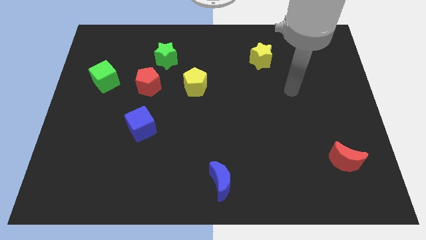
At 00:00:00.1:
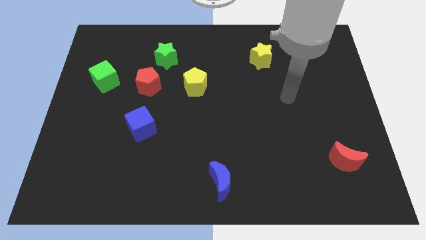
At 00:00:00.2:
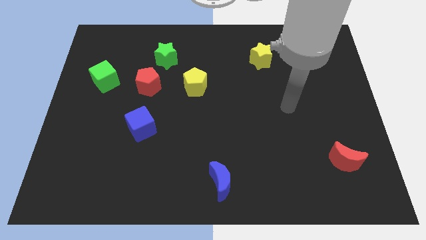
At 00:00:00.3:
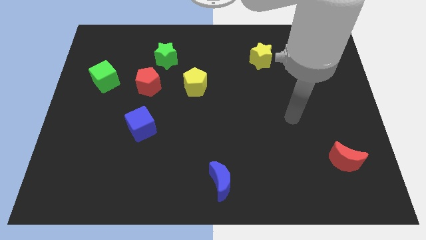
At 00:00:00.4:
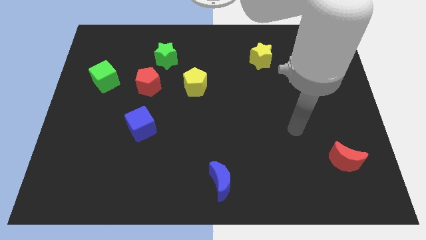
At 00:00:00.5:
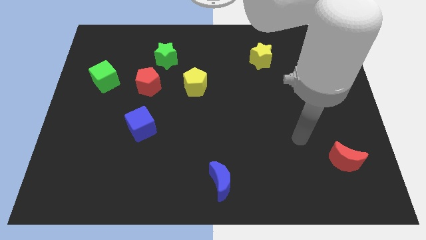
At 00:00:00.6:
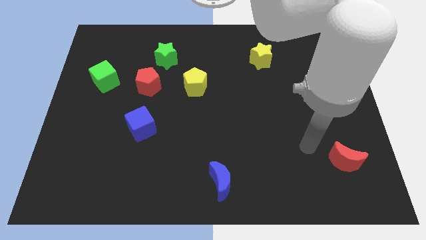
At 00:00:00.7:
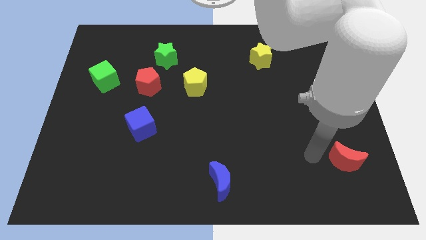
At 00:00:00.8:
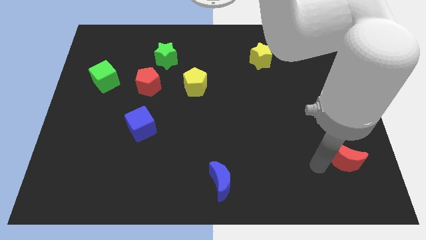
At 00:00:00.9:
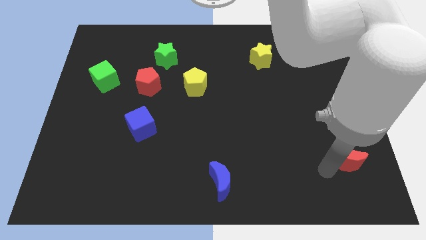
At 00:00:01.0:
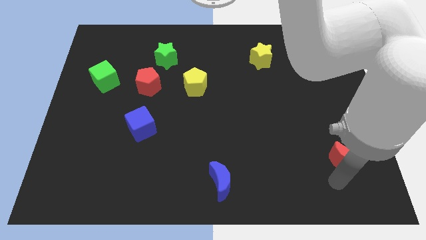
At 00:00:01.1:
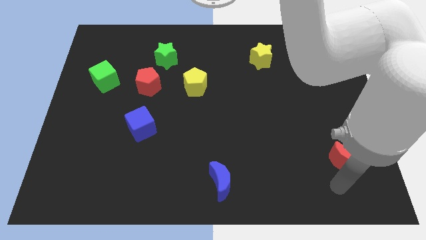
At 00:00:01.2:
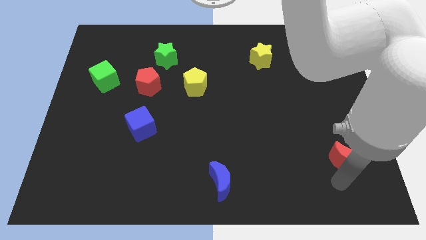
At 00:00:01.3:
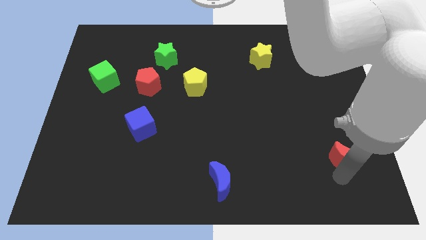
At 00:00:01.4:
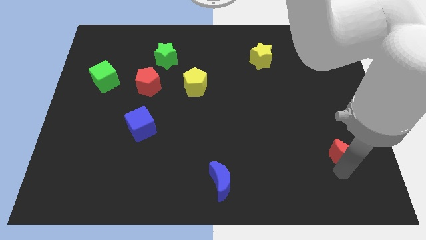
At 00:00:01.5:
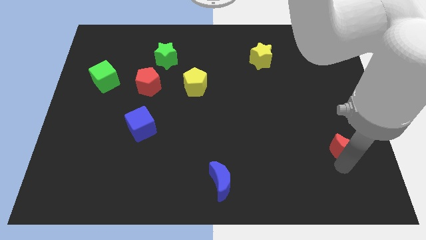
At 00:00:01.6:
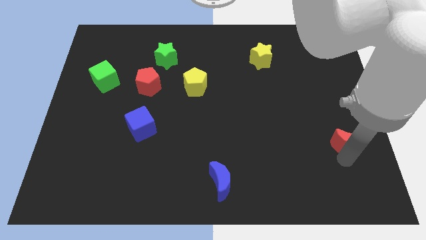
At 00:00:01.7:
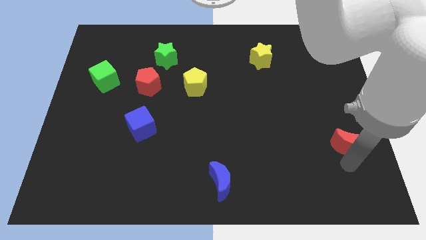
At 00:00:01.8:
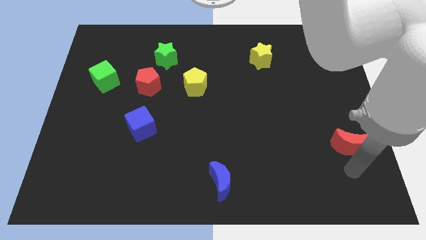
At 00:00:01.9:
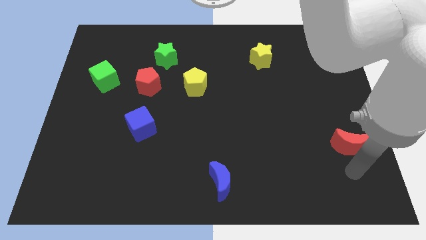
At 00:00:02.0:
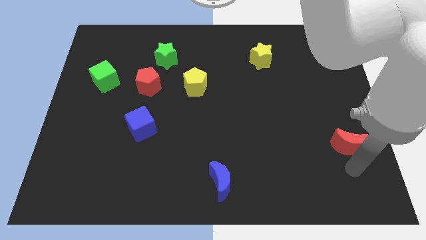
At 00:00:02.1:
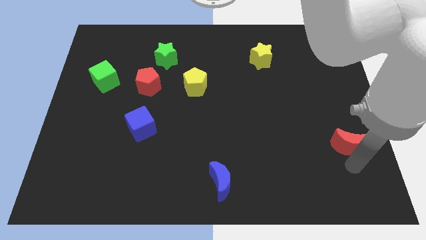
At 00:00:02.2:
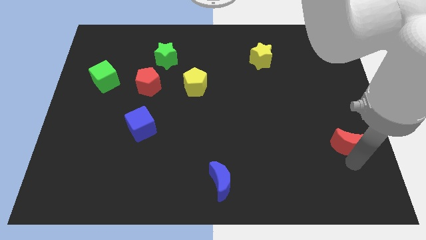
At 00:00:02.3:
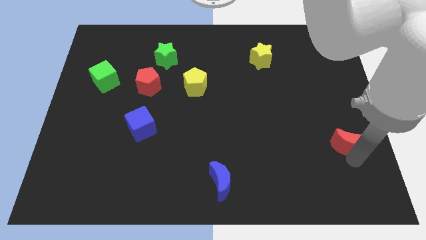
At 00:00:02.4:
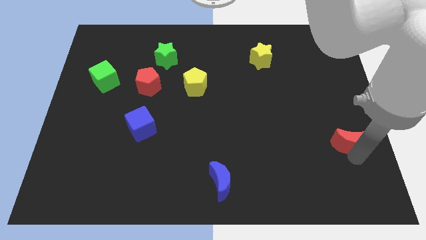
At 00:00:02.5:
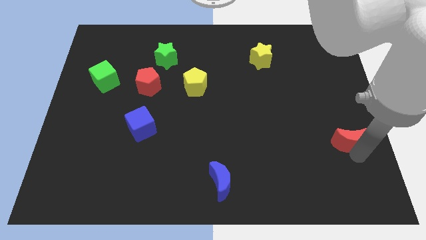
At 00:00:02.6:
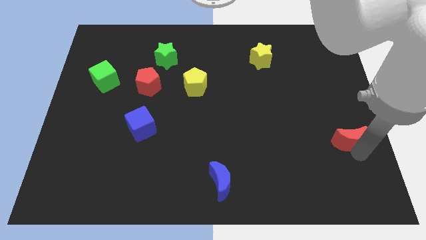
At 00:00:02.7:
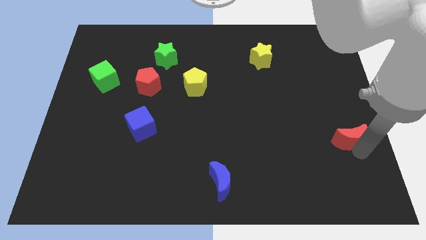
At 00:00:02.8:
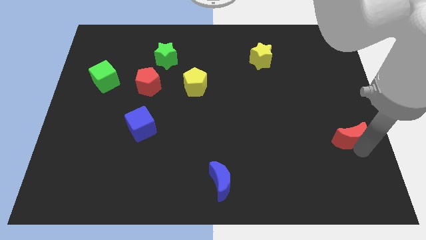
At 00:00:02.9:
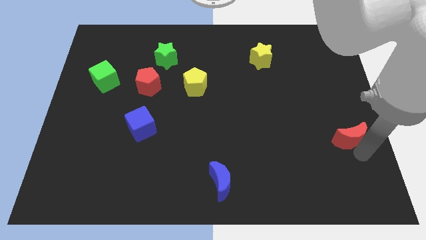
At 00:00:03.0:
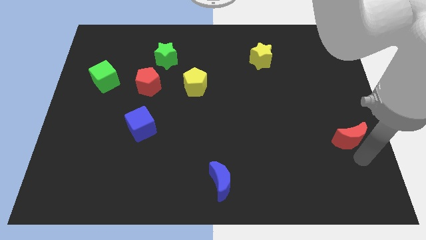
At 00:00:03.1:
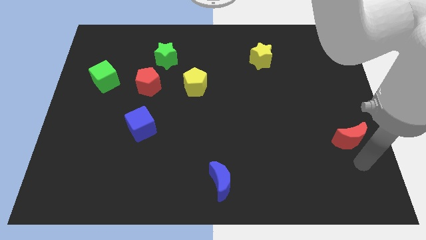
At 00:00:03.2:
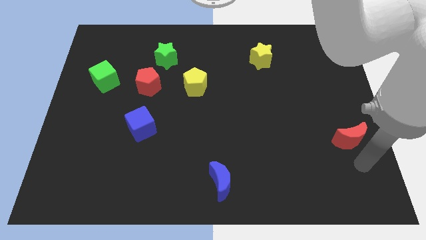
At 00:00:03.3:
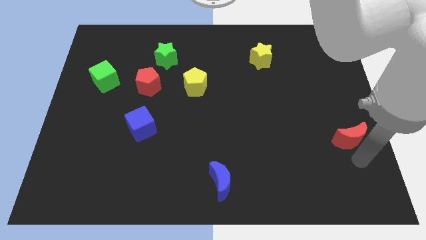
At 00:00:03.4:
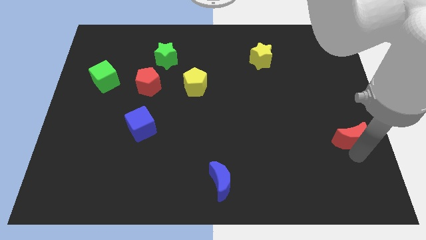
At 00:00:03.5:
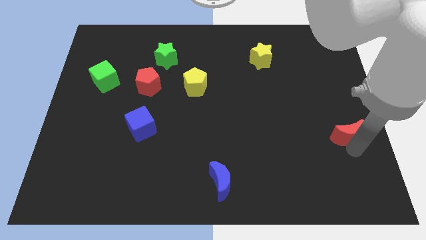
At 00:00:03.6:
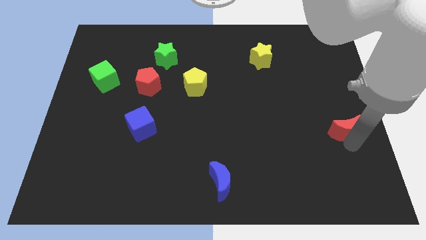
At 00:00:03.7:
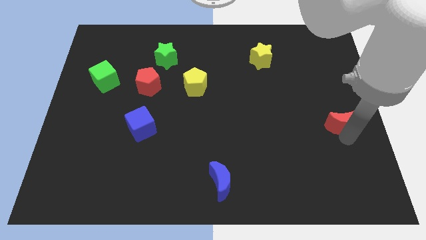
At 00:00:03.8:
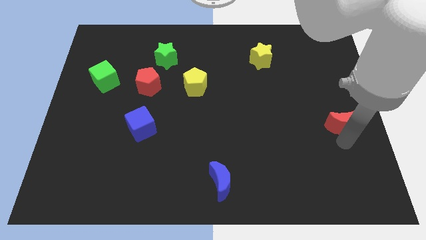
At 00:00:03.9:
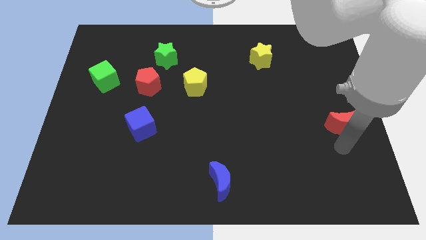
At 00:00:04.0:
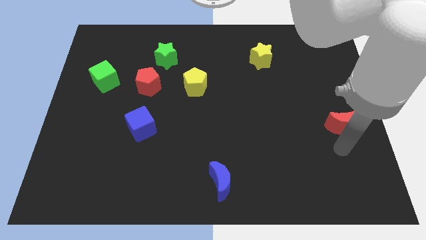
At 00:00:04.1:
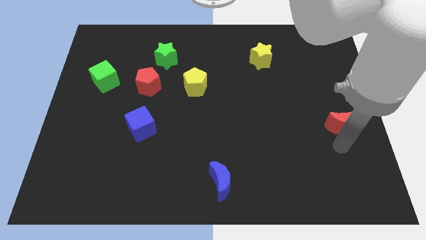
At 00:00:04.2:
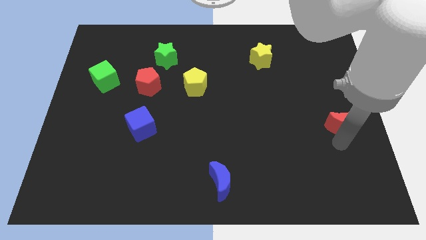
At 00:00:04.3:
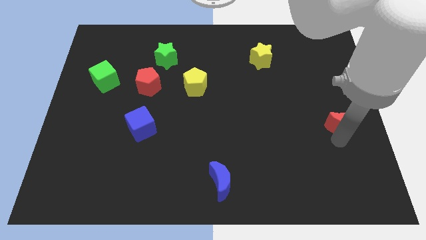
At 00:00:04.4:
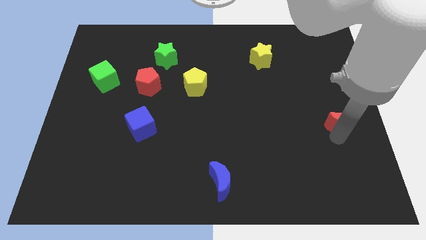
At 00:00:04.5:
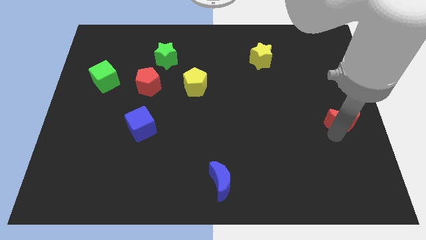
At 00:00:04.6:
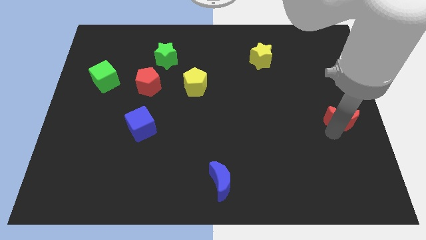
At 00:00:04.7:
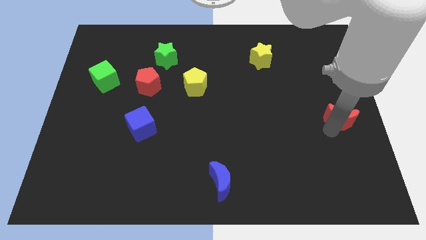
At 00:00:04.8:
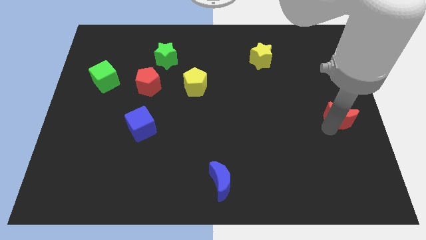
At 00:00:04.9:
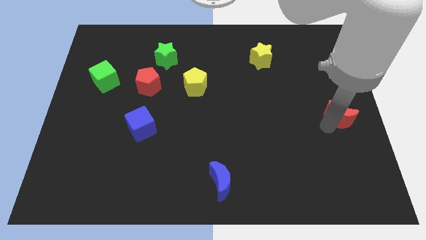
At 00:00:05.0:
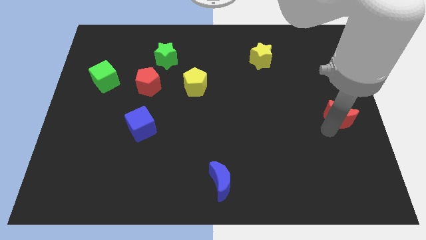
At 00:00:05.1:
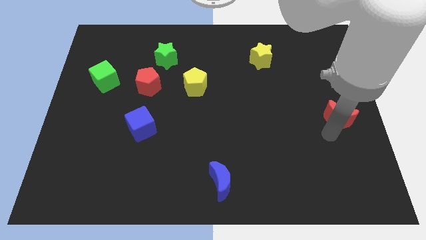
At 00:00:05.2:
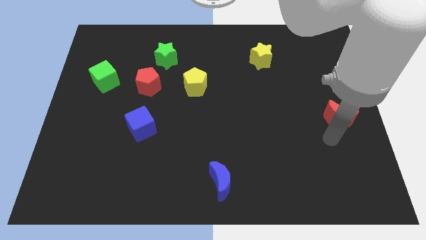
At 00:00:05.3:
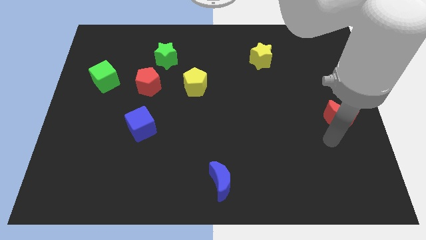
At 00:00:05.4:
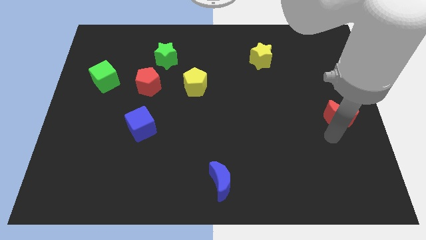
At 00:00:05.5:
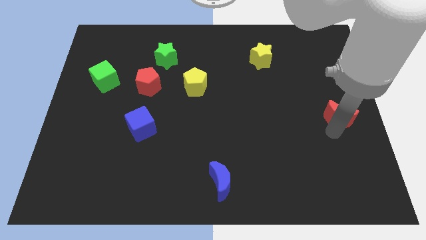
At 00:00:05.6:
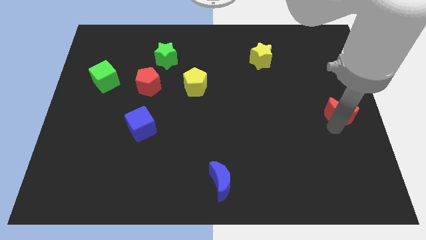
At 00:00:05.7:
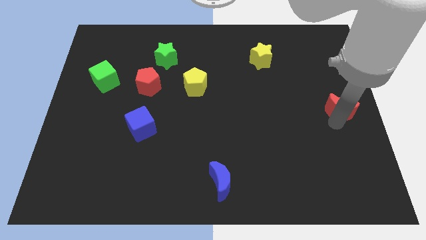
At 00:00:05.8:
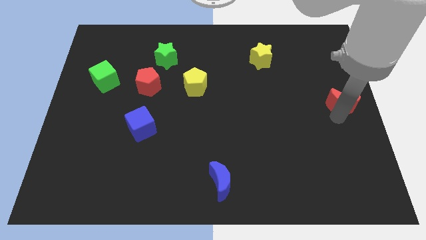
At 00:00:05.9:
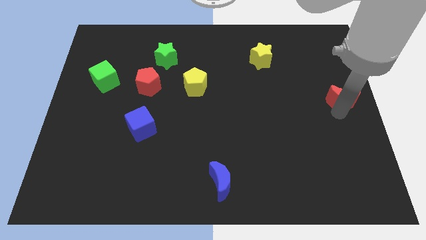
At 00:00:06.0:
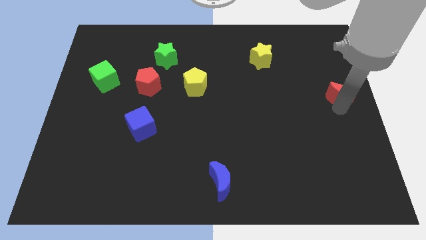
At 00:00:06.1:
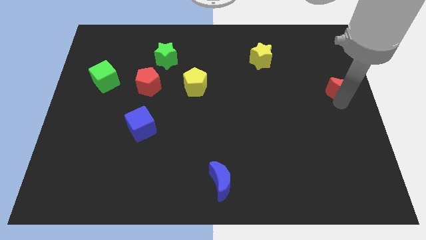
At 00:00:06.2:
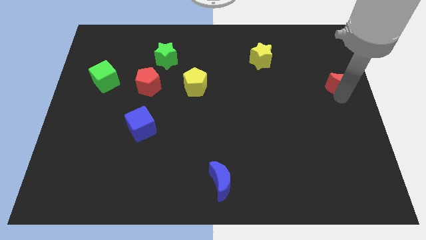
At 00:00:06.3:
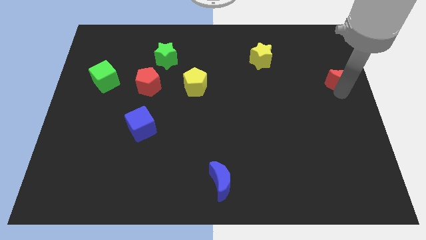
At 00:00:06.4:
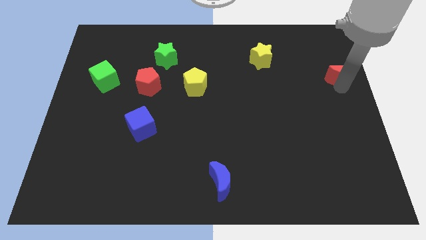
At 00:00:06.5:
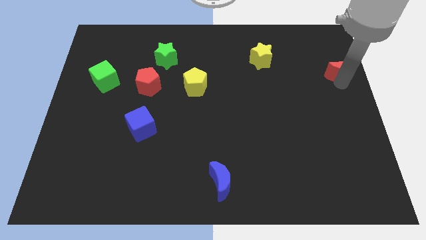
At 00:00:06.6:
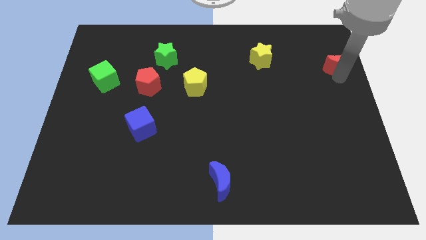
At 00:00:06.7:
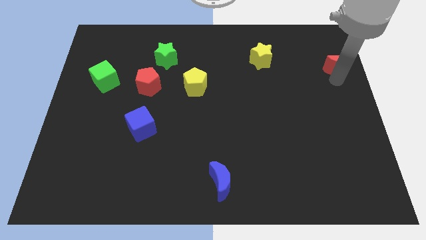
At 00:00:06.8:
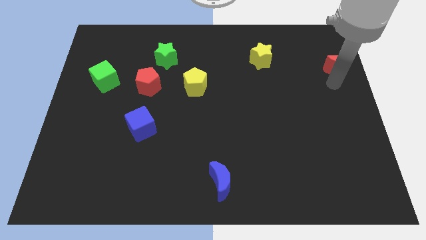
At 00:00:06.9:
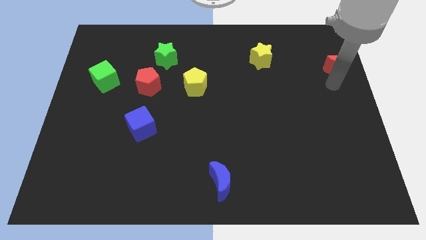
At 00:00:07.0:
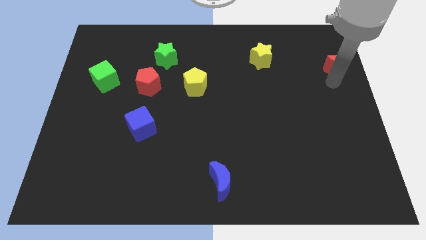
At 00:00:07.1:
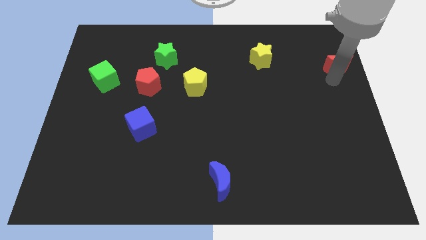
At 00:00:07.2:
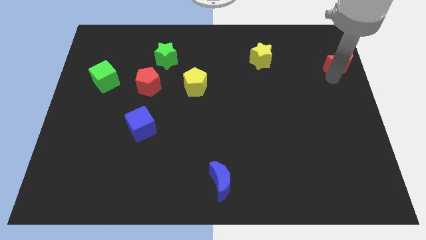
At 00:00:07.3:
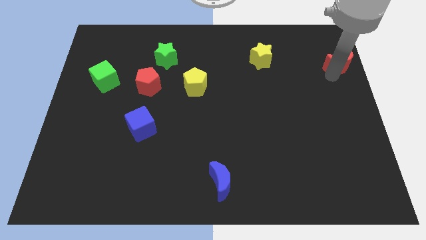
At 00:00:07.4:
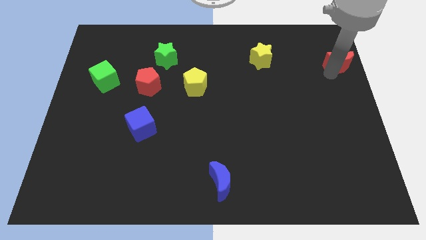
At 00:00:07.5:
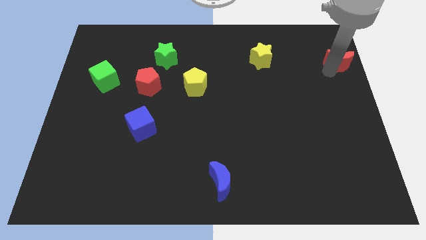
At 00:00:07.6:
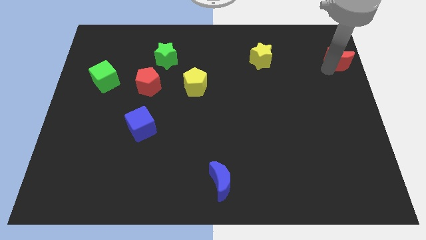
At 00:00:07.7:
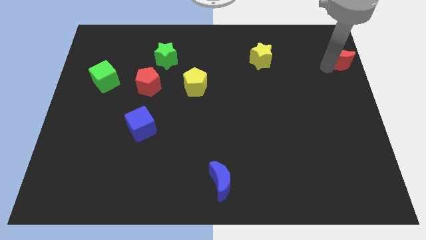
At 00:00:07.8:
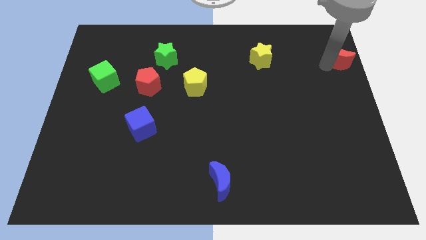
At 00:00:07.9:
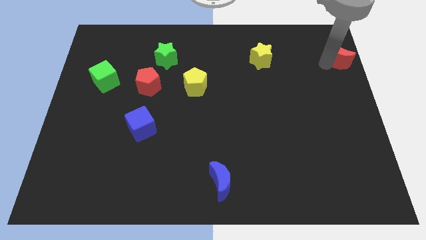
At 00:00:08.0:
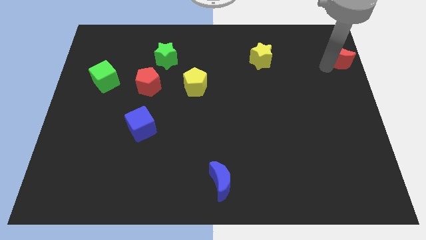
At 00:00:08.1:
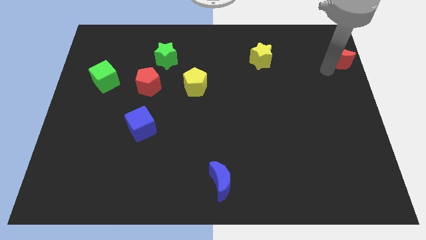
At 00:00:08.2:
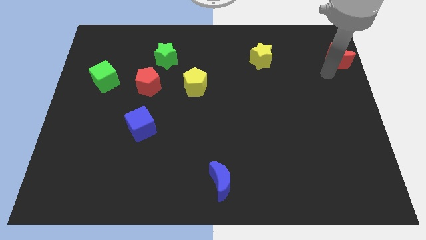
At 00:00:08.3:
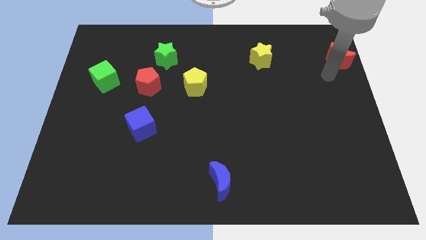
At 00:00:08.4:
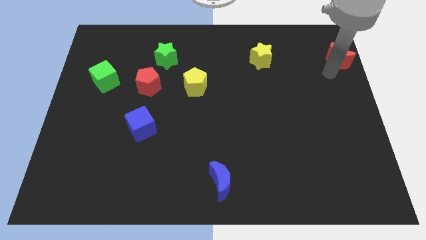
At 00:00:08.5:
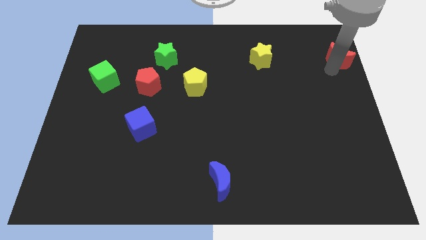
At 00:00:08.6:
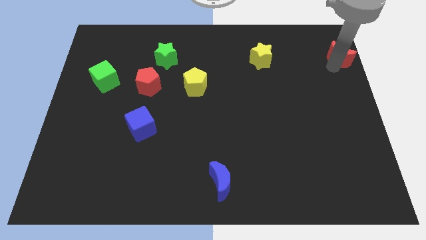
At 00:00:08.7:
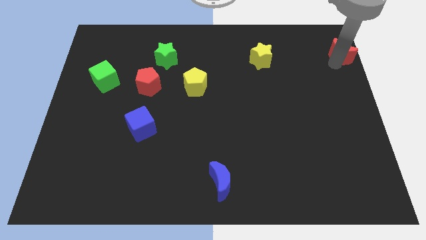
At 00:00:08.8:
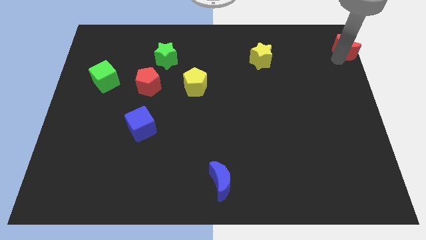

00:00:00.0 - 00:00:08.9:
move the red moon to the top right corner
